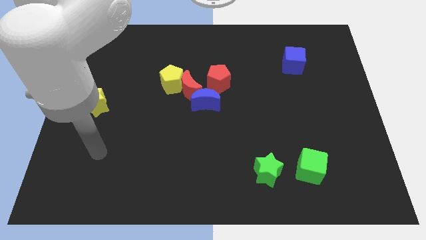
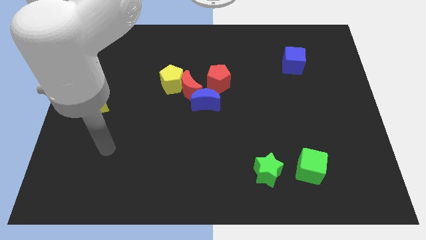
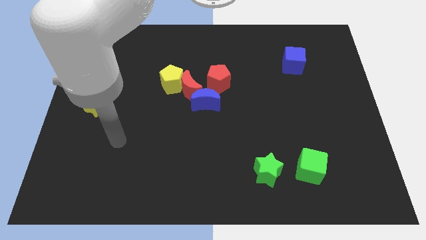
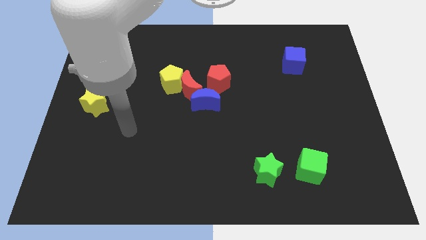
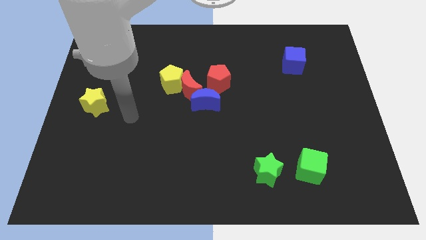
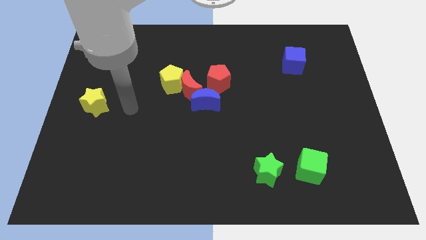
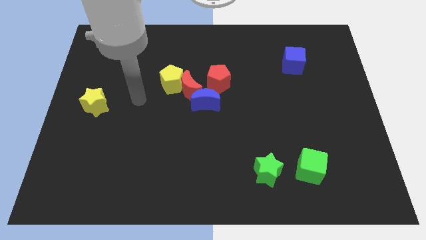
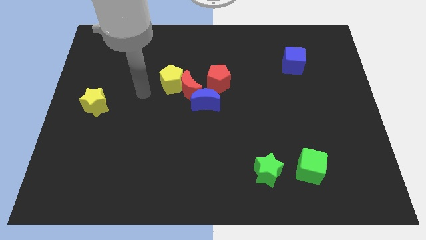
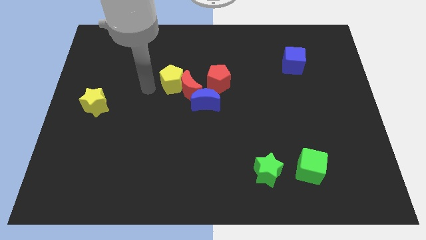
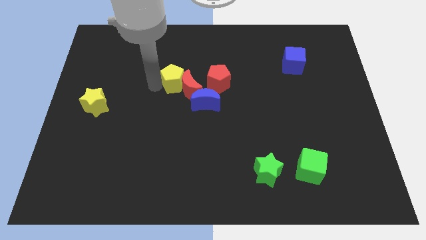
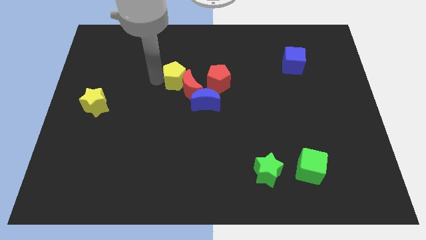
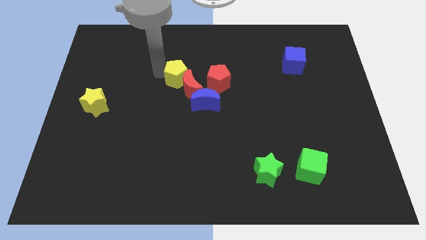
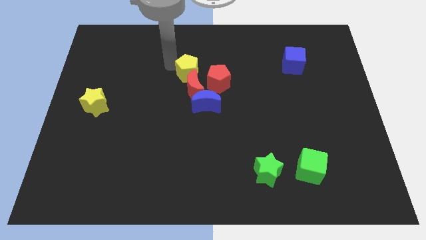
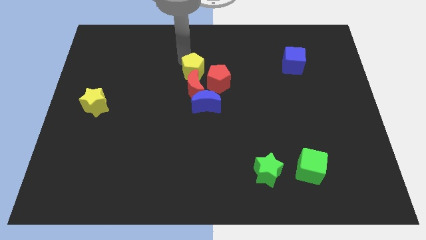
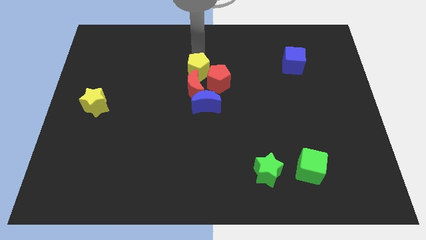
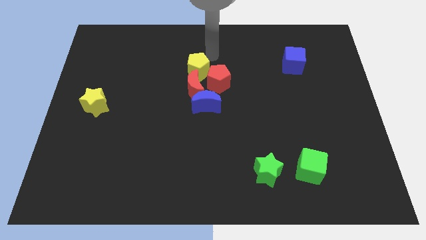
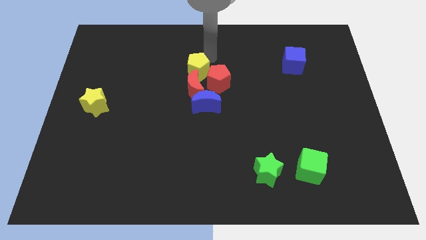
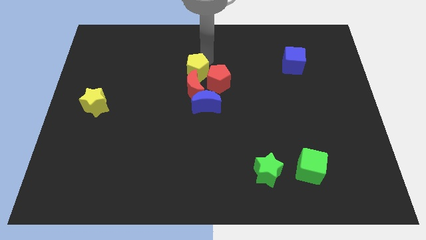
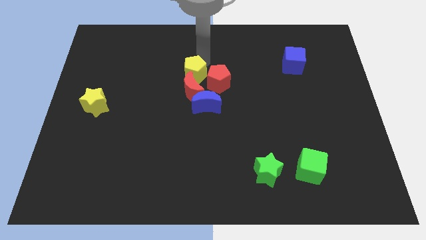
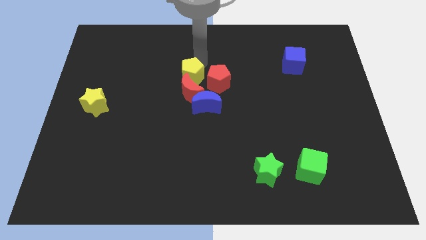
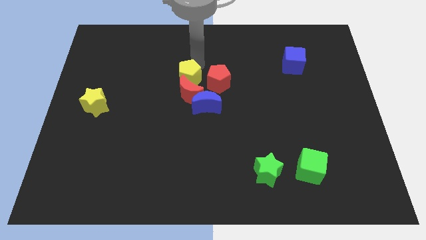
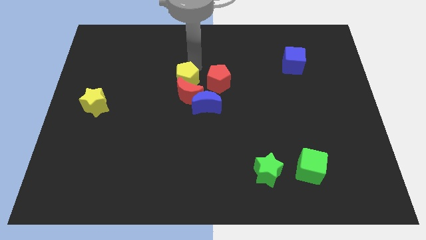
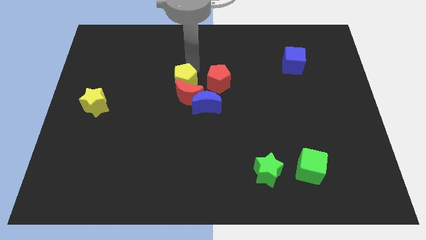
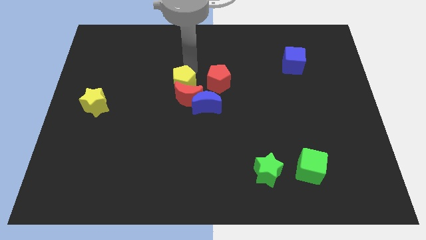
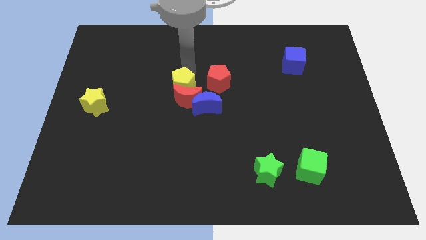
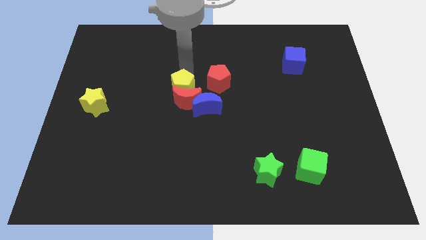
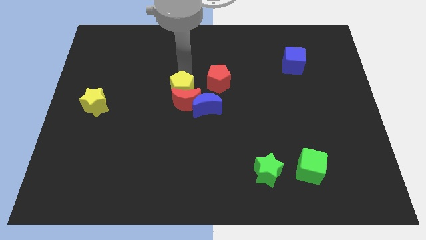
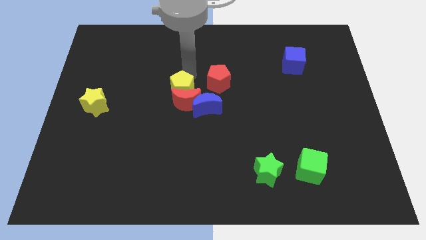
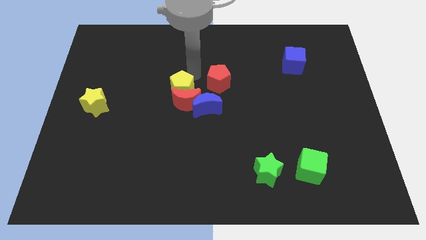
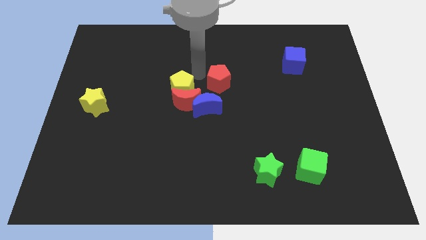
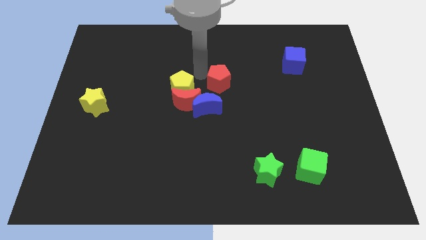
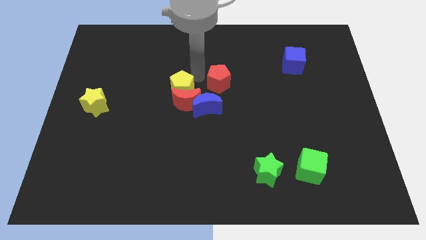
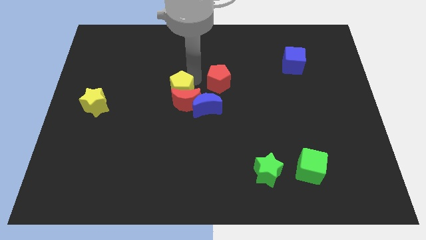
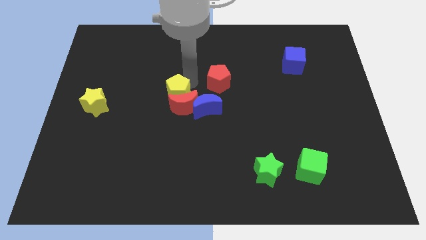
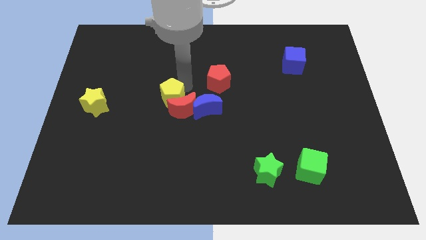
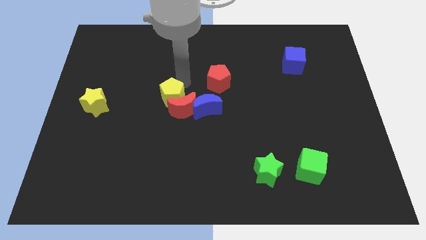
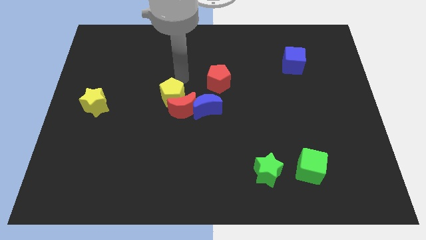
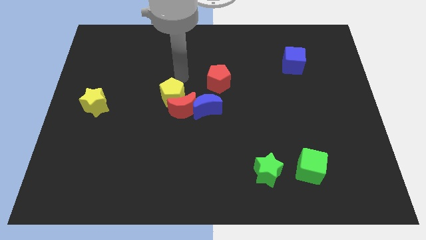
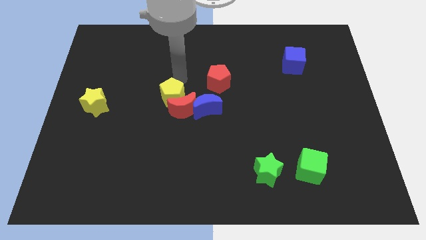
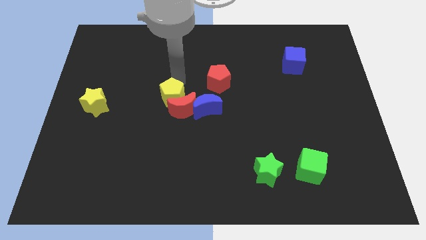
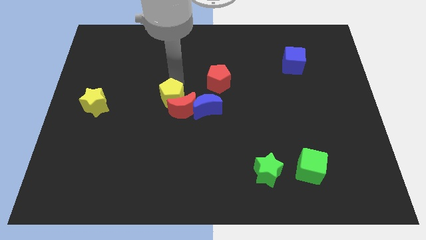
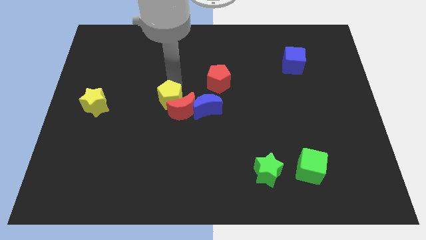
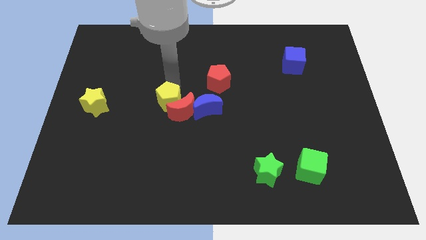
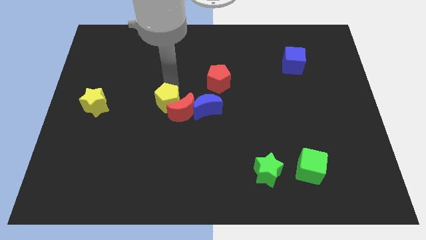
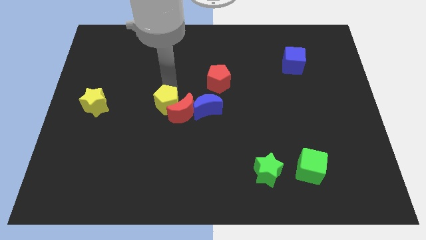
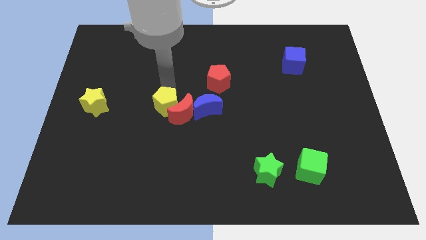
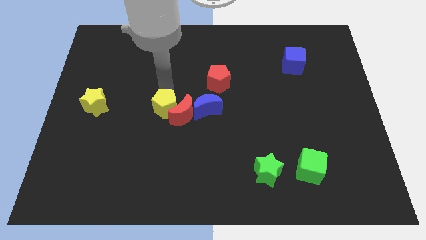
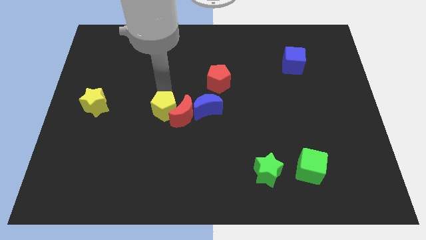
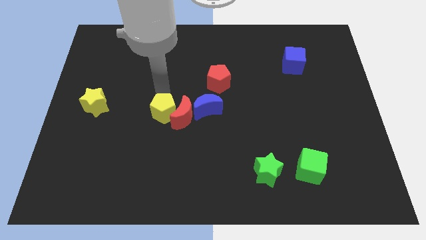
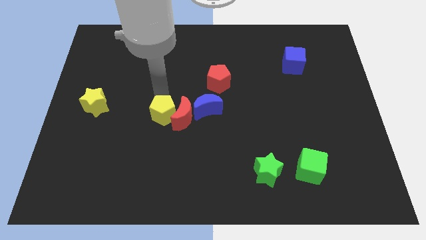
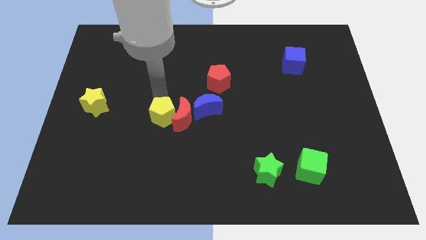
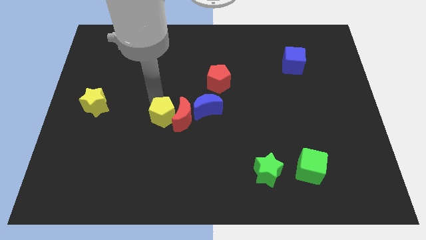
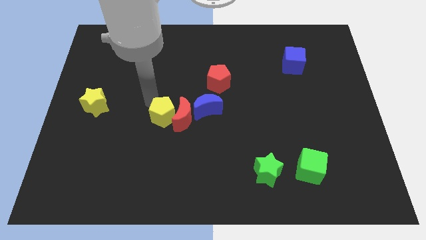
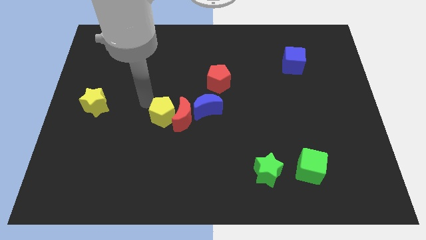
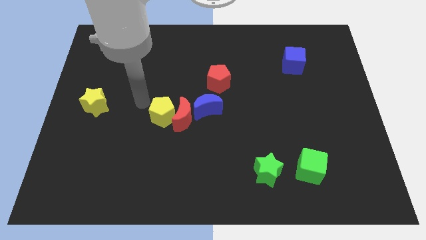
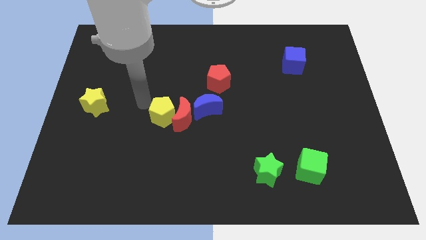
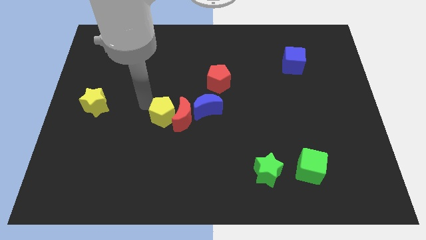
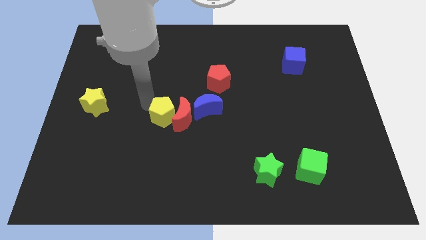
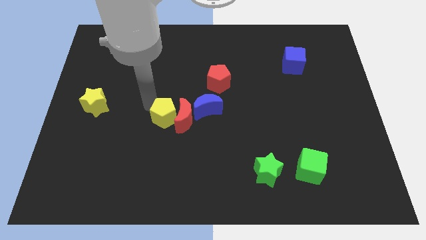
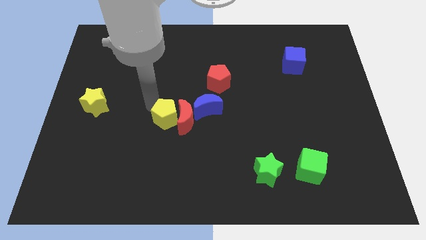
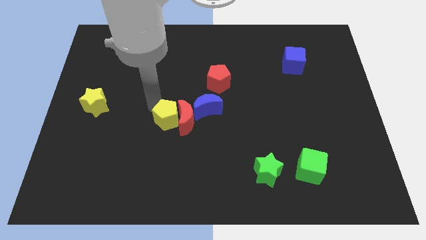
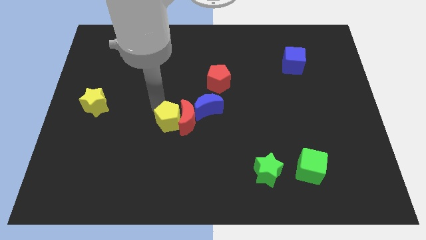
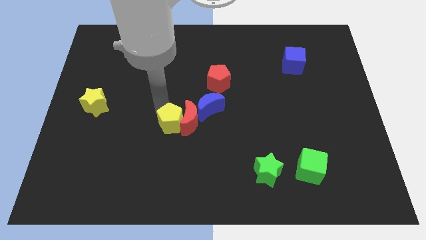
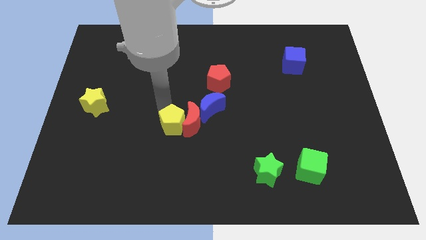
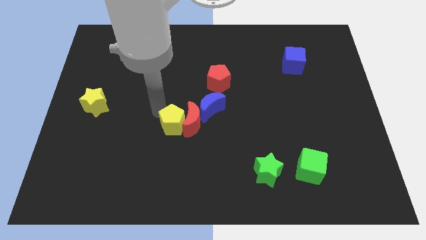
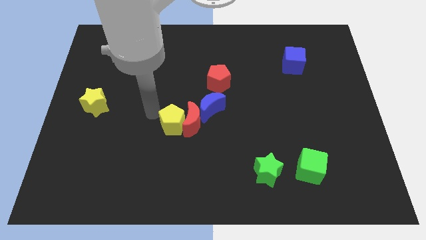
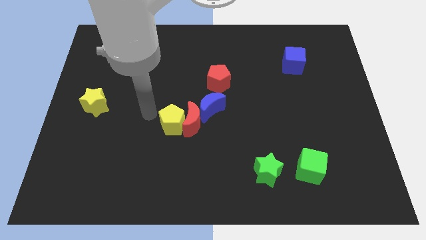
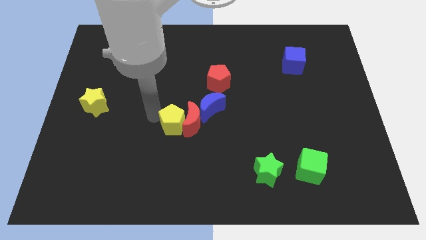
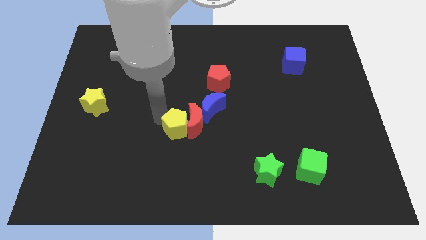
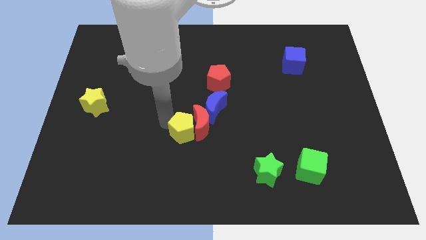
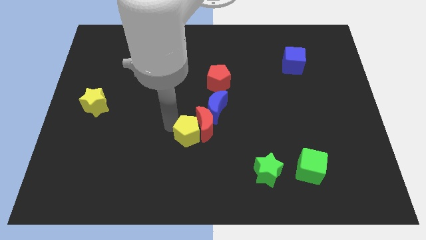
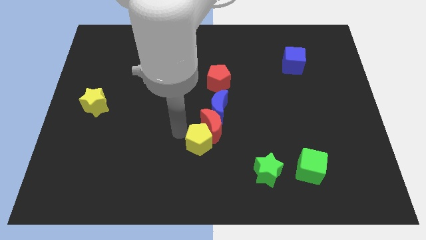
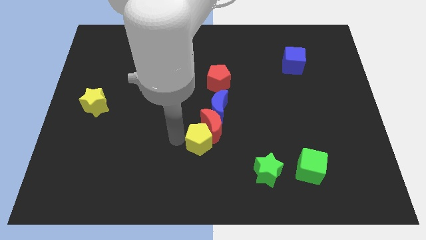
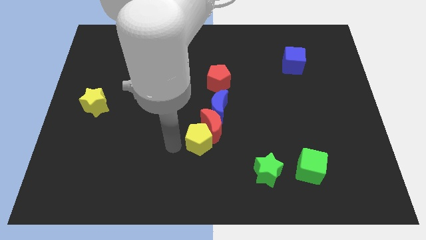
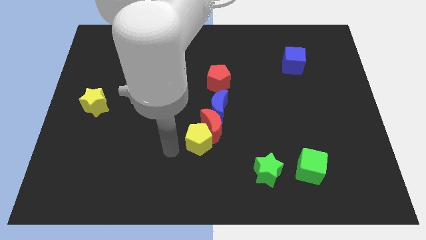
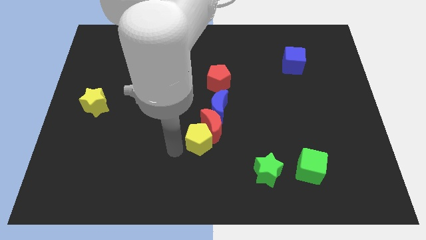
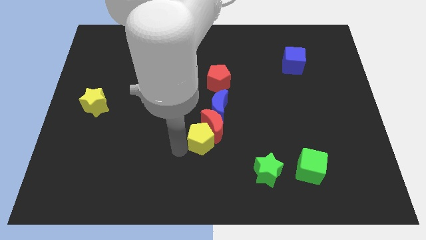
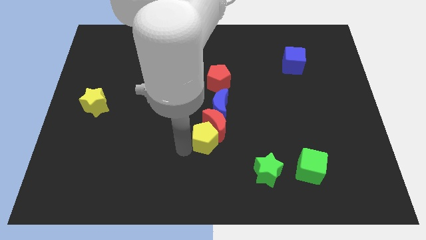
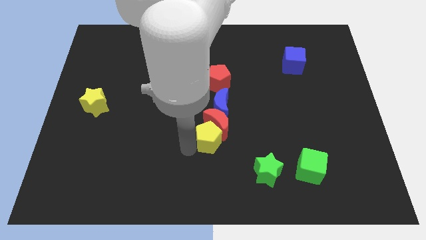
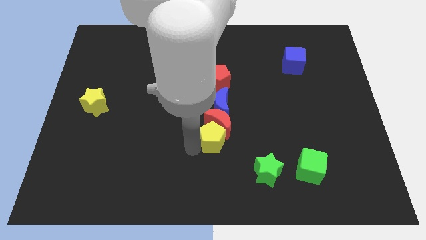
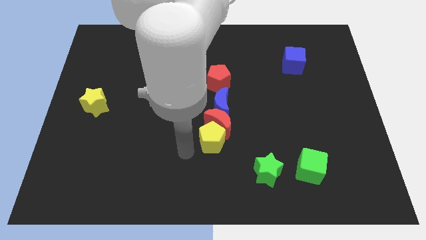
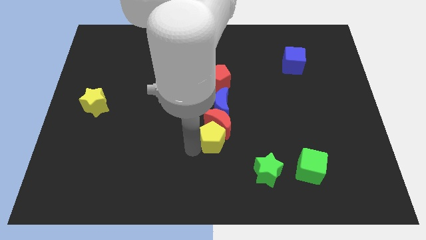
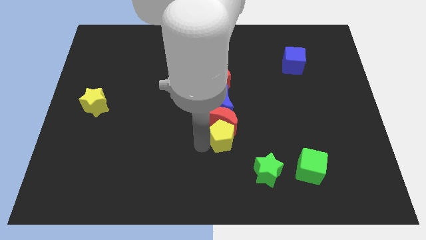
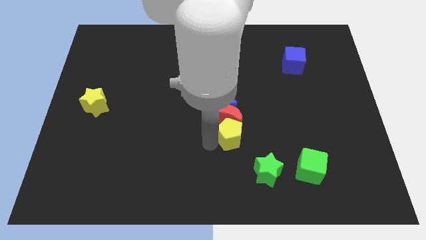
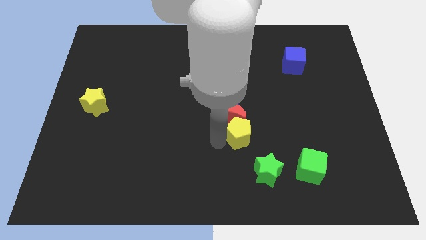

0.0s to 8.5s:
slide the yellow pentagon to the bottom right of the blue moon
